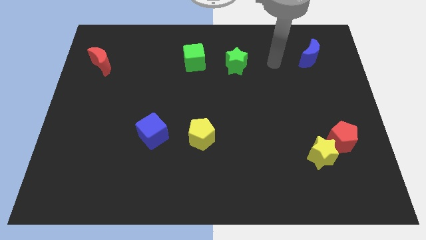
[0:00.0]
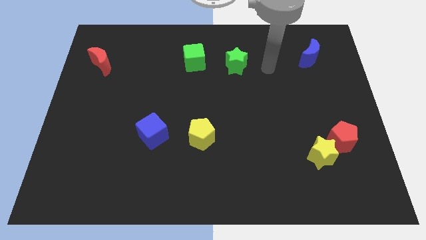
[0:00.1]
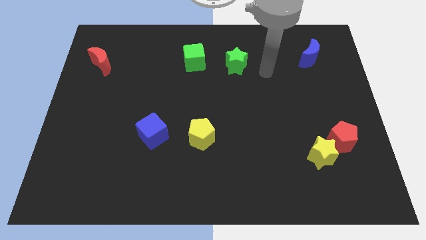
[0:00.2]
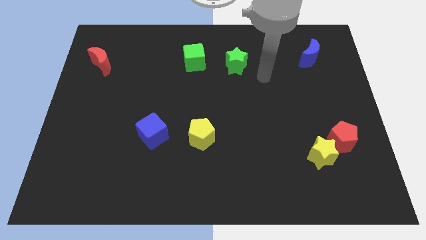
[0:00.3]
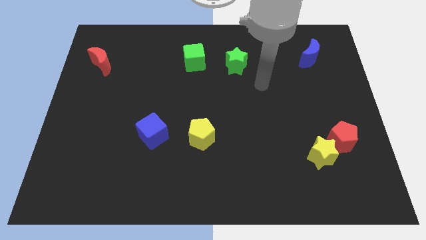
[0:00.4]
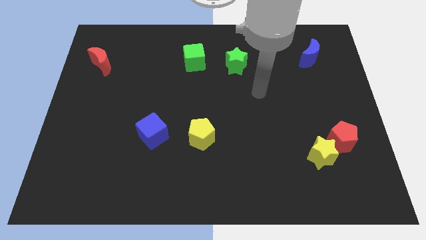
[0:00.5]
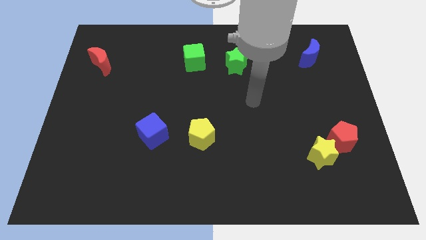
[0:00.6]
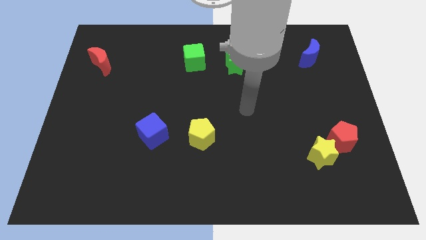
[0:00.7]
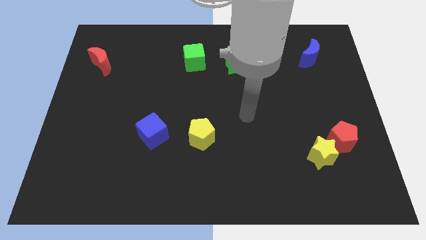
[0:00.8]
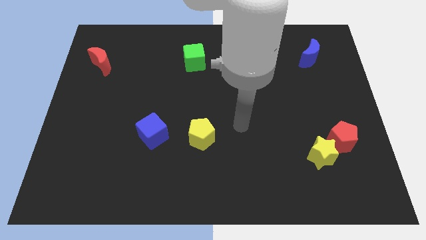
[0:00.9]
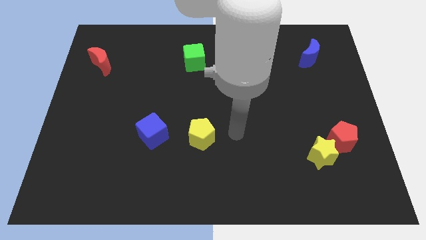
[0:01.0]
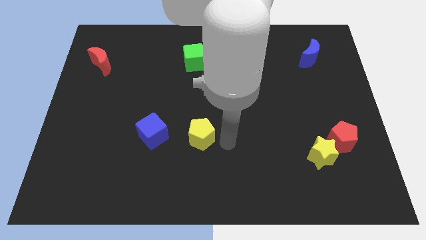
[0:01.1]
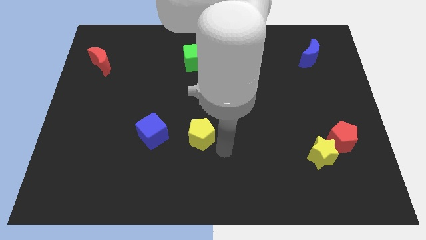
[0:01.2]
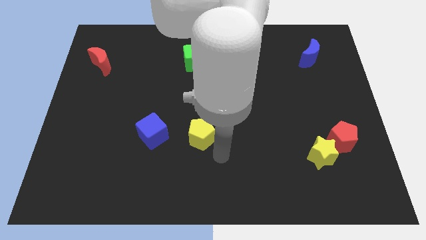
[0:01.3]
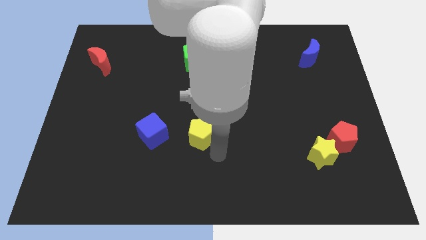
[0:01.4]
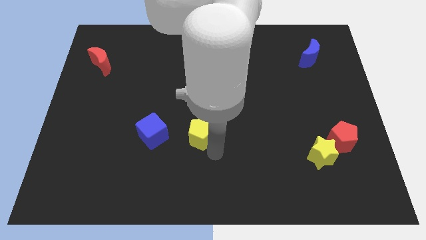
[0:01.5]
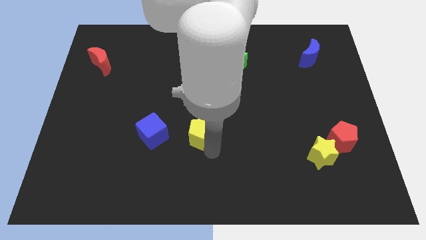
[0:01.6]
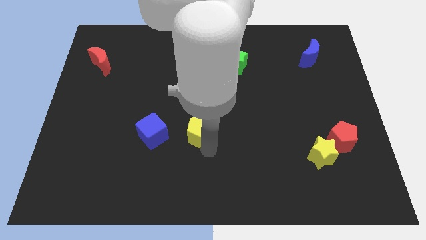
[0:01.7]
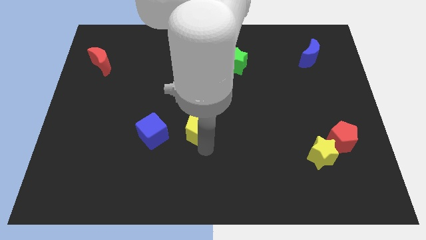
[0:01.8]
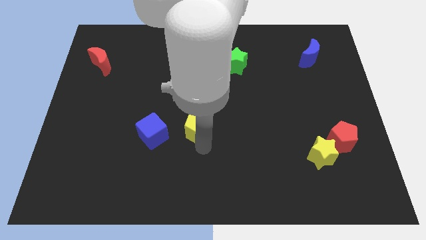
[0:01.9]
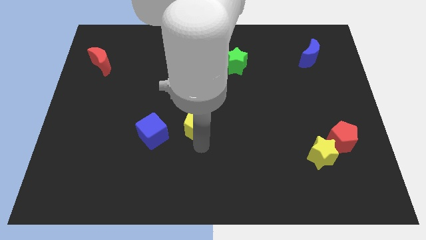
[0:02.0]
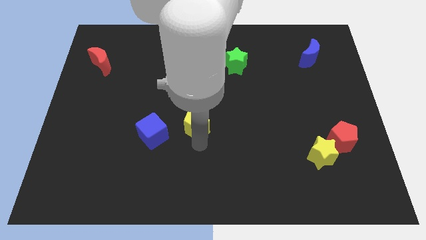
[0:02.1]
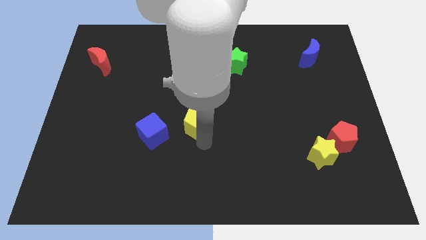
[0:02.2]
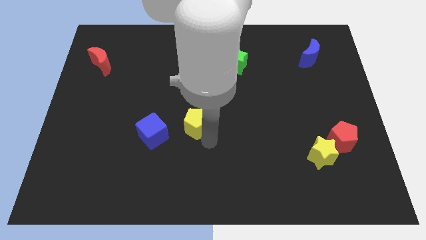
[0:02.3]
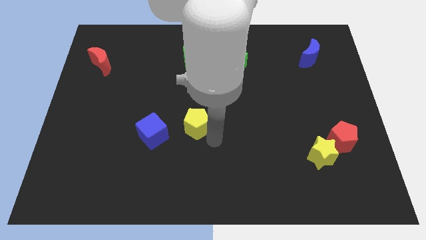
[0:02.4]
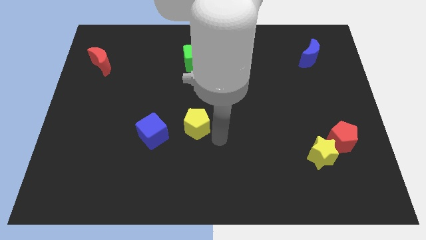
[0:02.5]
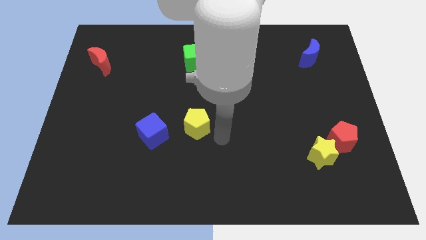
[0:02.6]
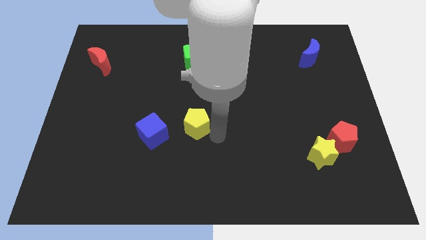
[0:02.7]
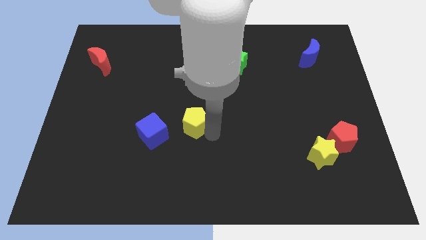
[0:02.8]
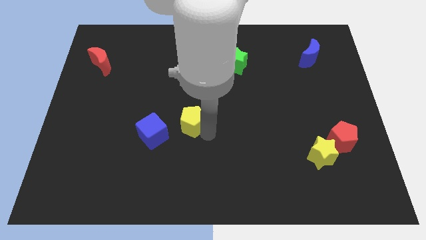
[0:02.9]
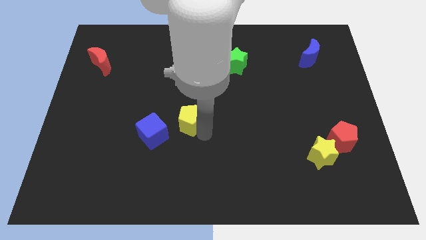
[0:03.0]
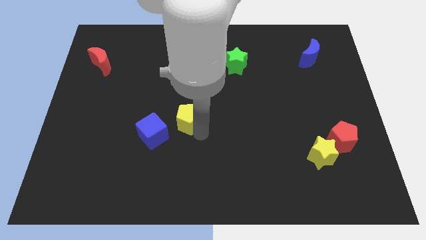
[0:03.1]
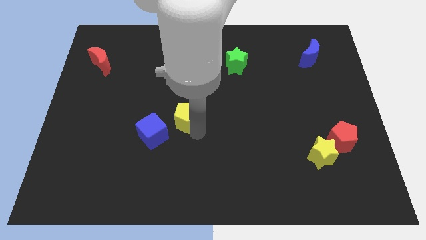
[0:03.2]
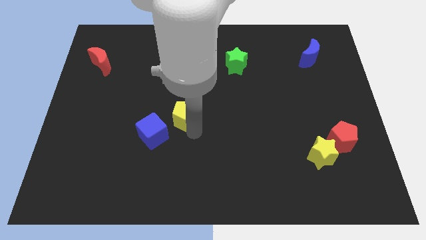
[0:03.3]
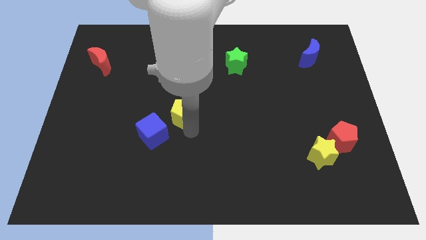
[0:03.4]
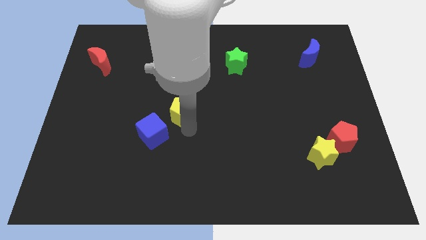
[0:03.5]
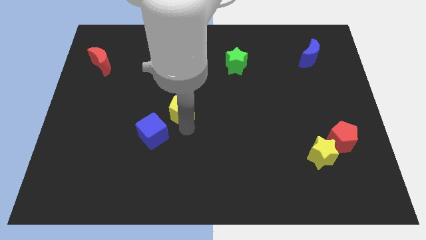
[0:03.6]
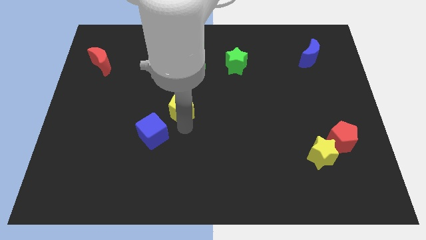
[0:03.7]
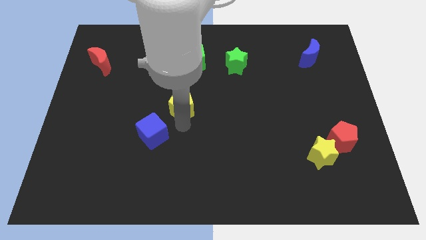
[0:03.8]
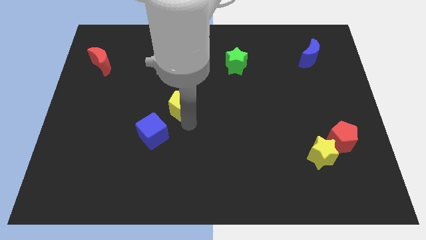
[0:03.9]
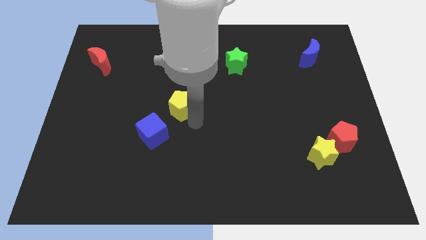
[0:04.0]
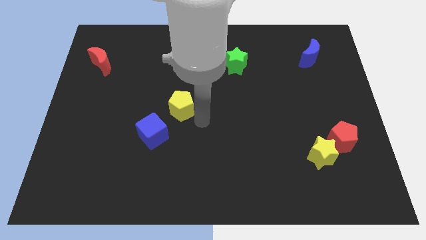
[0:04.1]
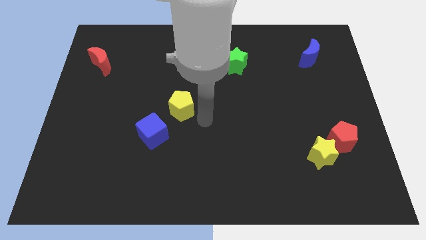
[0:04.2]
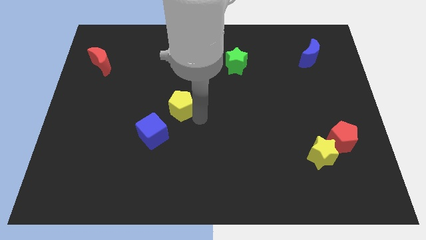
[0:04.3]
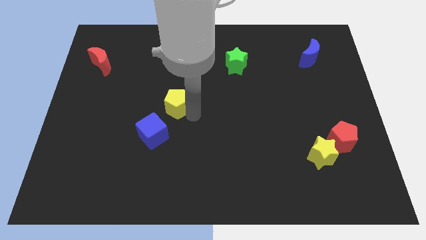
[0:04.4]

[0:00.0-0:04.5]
put the yellow pentagon to the top of the blue cube

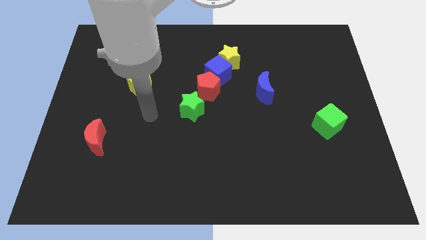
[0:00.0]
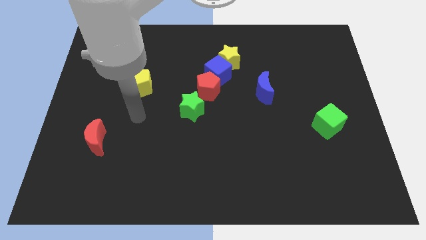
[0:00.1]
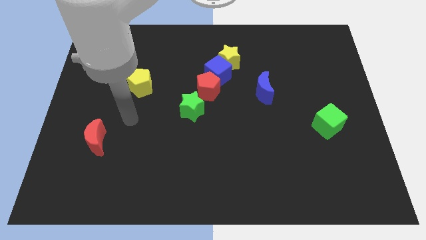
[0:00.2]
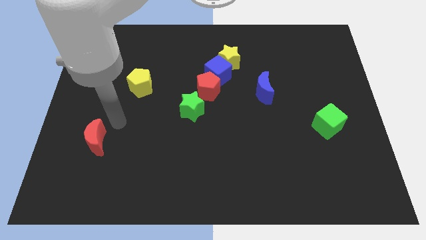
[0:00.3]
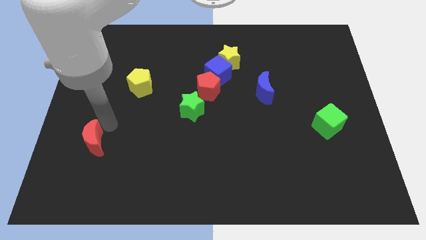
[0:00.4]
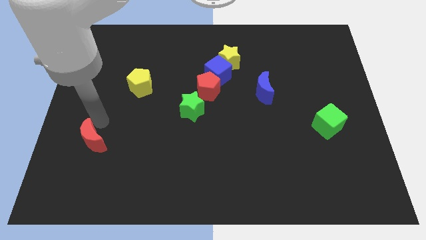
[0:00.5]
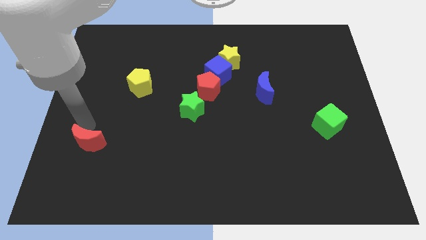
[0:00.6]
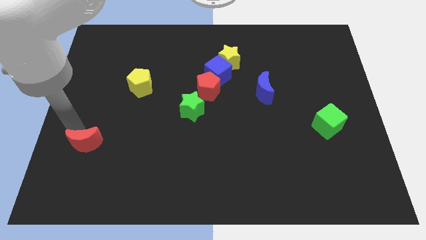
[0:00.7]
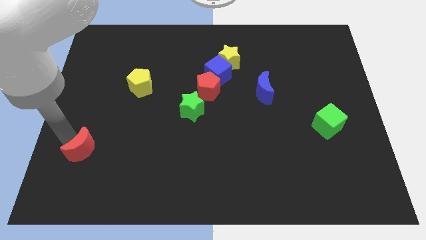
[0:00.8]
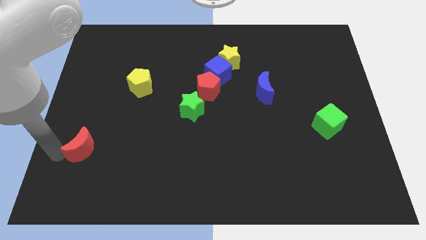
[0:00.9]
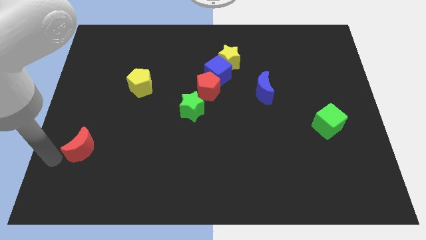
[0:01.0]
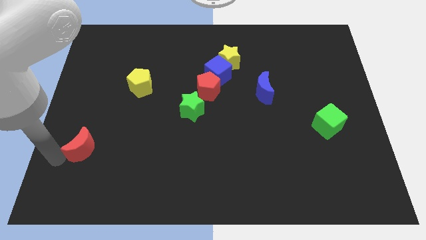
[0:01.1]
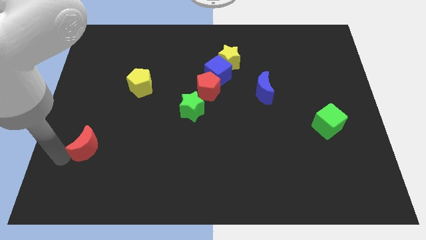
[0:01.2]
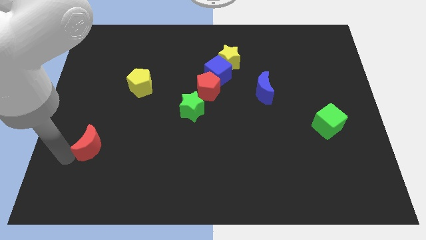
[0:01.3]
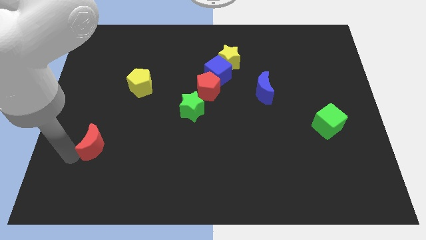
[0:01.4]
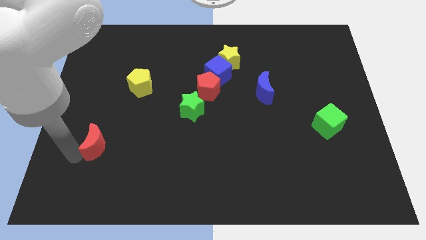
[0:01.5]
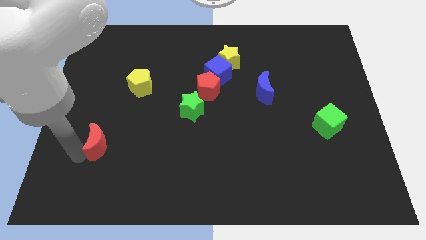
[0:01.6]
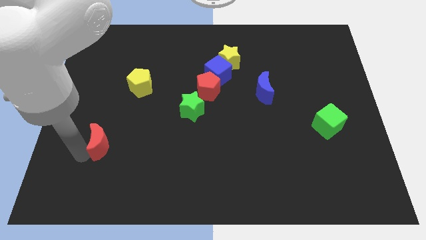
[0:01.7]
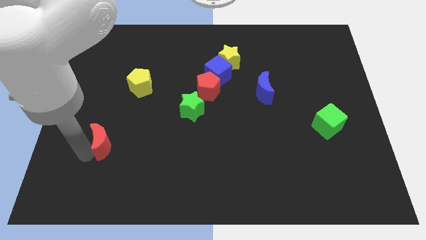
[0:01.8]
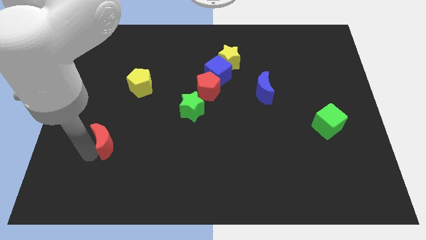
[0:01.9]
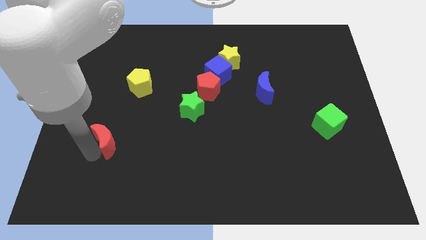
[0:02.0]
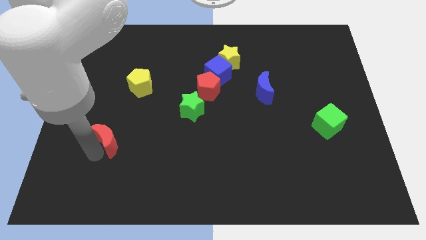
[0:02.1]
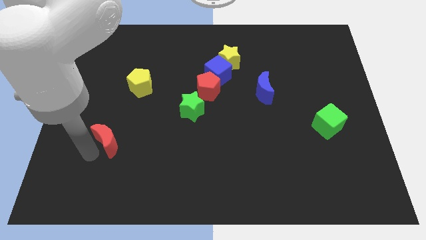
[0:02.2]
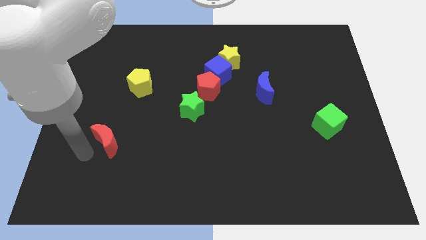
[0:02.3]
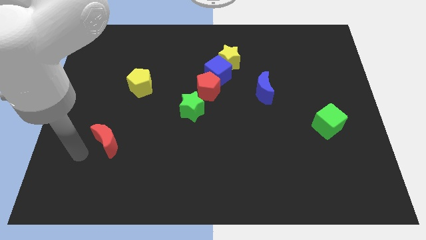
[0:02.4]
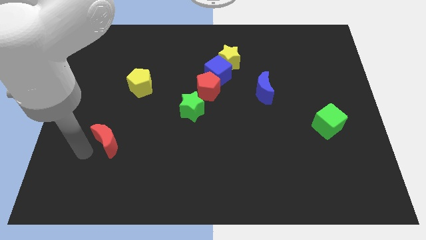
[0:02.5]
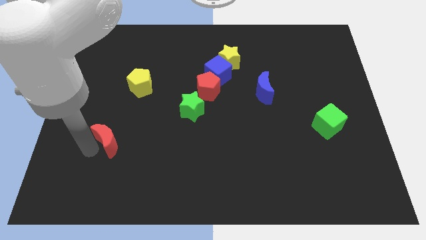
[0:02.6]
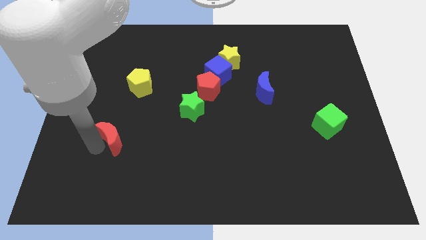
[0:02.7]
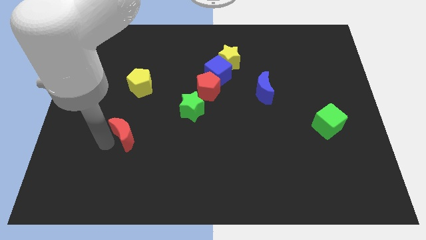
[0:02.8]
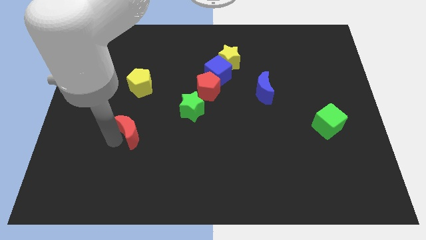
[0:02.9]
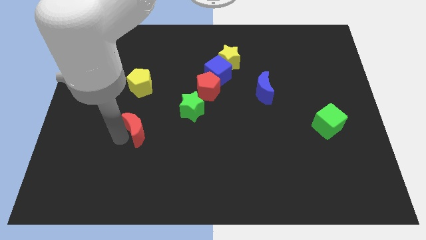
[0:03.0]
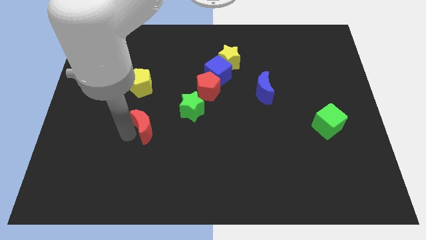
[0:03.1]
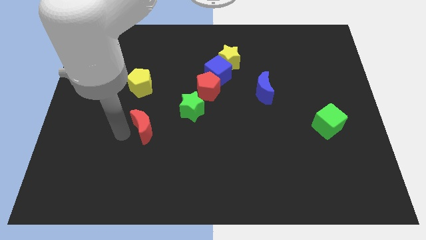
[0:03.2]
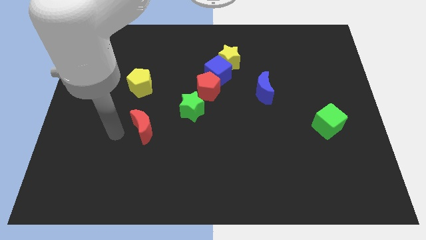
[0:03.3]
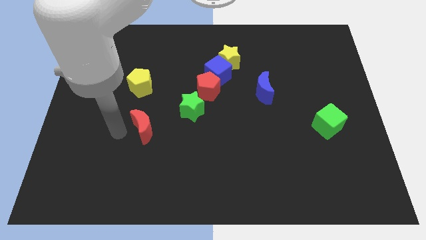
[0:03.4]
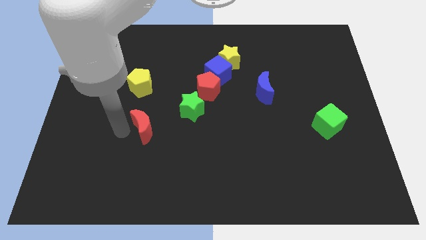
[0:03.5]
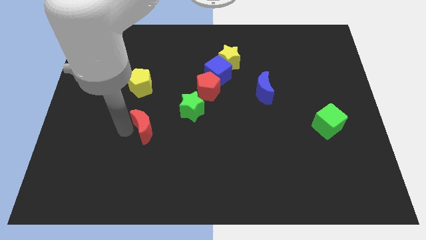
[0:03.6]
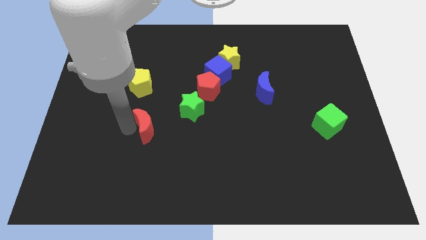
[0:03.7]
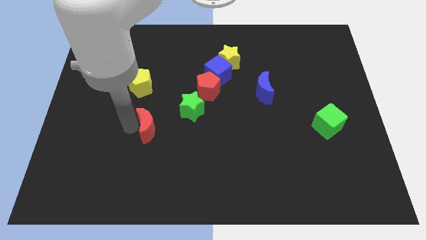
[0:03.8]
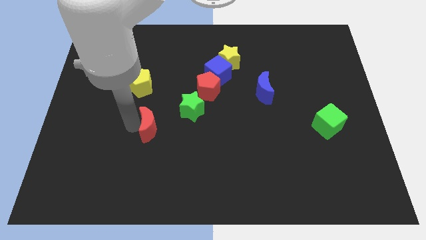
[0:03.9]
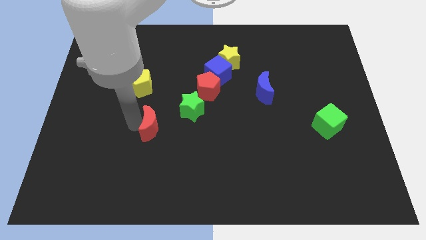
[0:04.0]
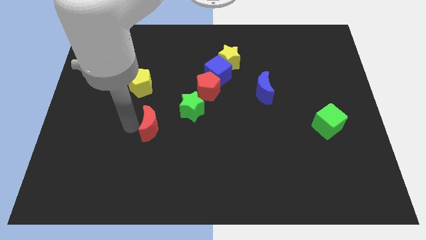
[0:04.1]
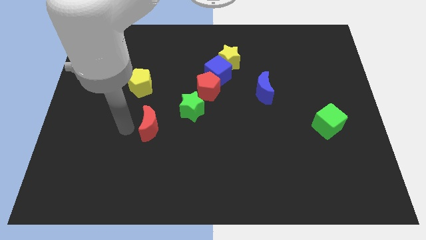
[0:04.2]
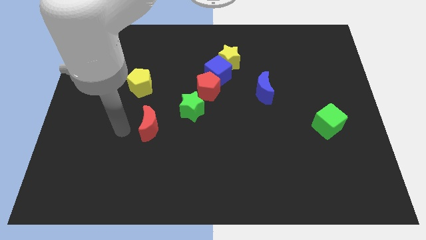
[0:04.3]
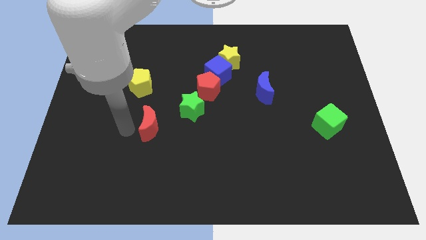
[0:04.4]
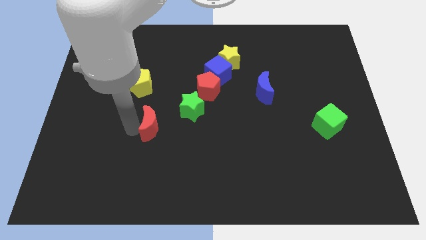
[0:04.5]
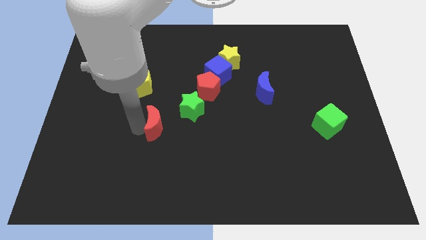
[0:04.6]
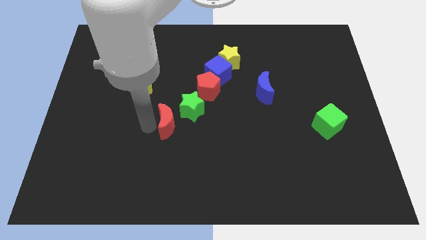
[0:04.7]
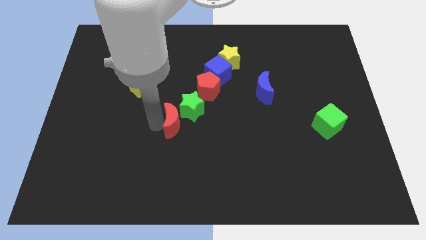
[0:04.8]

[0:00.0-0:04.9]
put the red moon diagonally down and to the left of the red pentagon
